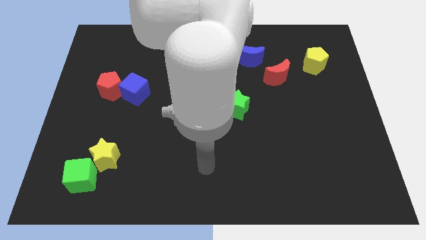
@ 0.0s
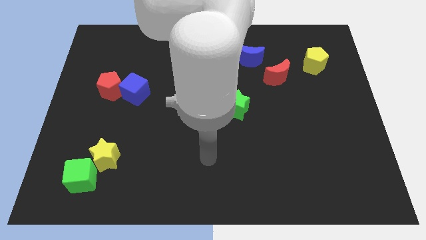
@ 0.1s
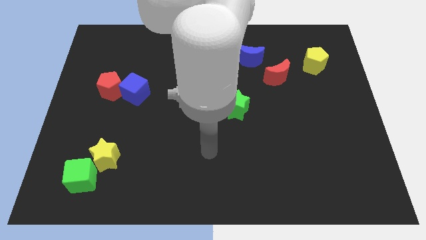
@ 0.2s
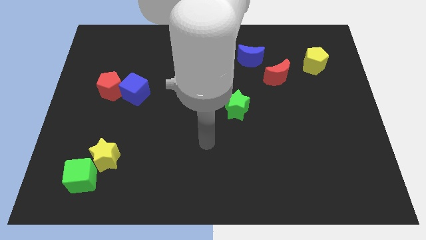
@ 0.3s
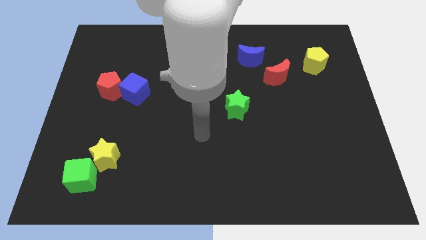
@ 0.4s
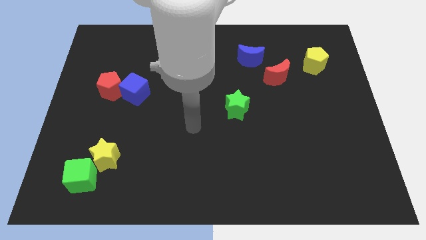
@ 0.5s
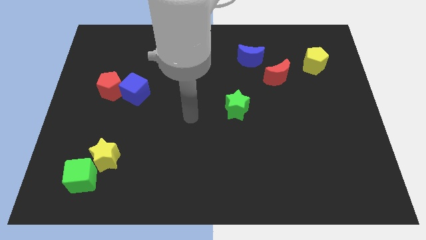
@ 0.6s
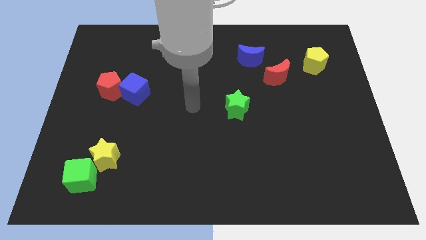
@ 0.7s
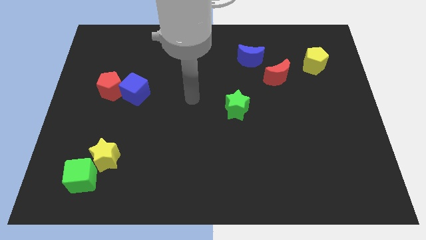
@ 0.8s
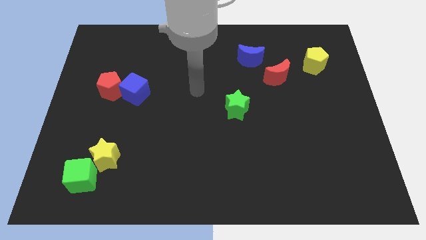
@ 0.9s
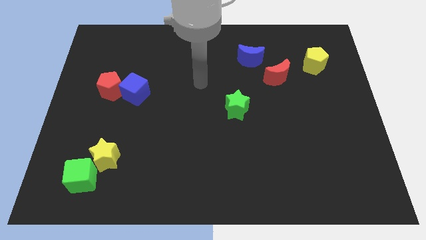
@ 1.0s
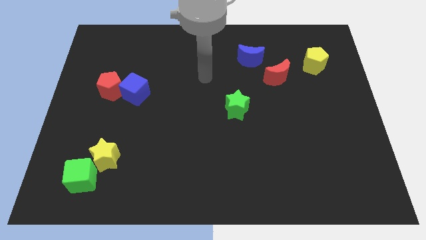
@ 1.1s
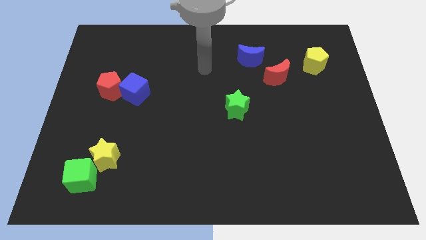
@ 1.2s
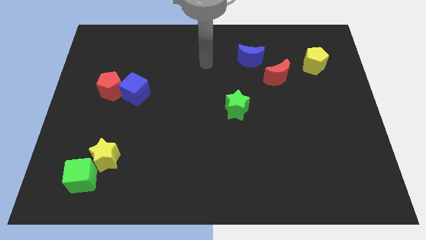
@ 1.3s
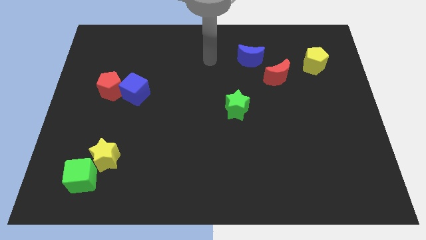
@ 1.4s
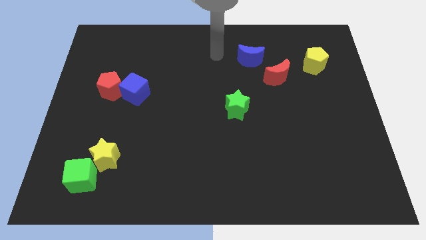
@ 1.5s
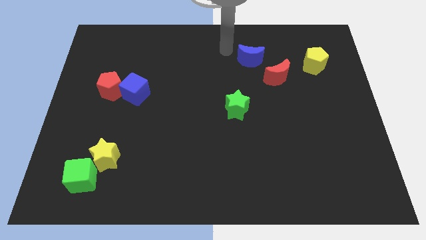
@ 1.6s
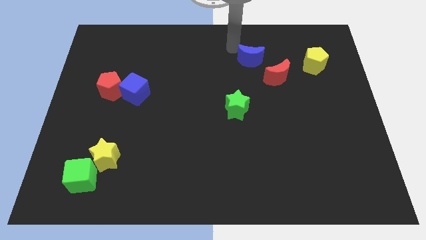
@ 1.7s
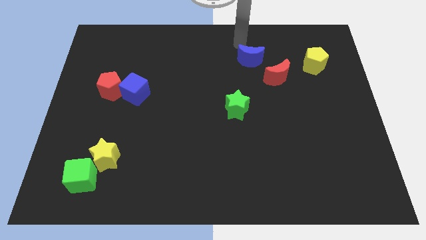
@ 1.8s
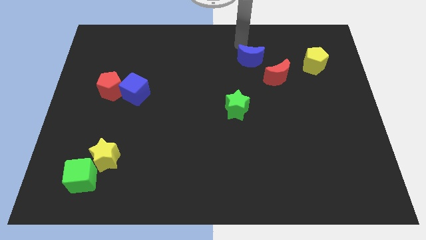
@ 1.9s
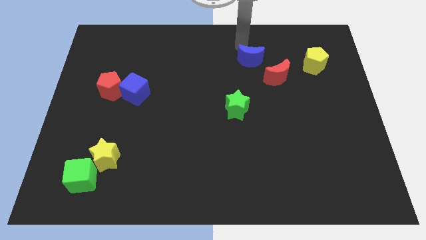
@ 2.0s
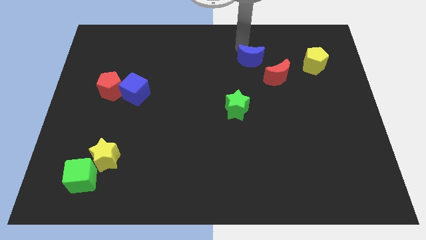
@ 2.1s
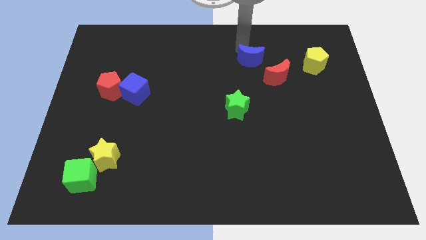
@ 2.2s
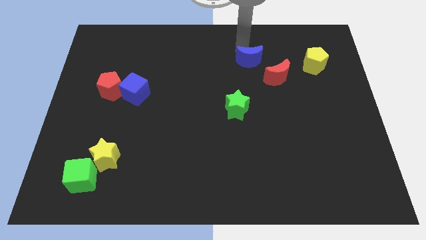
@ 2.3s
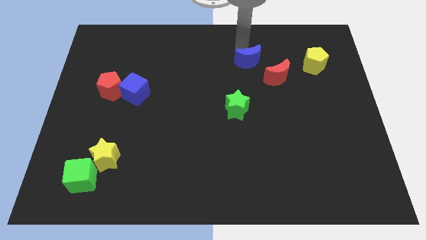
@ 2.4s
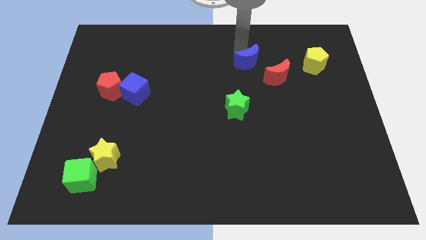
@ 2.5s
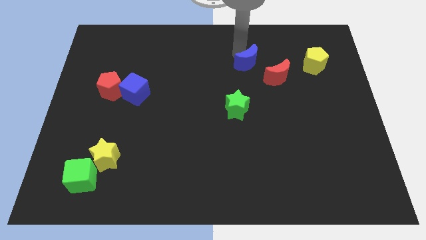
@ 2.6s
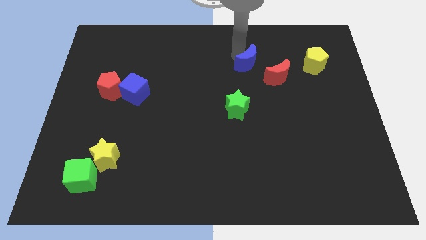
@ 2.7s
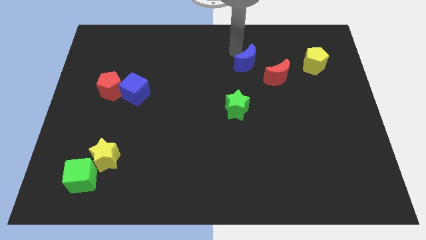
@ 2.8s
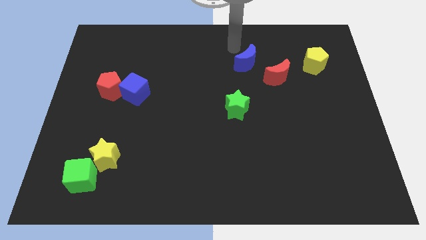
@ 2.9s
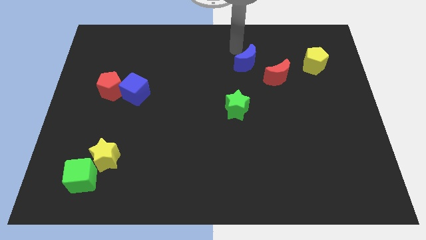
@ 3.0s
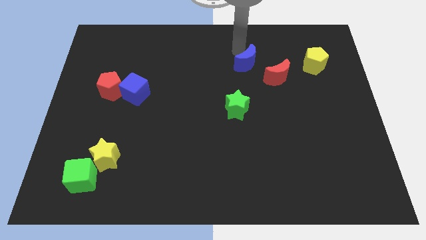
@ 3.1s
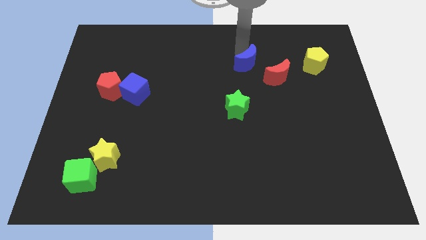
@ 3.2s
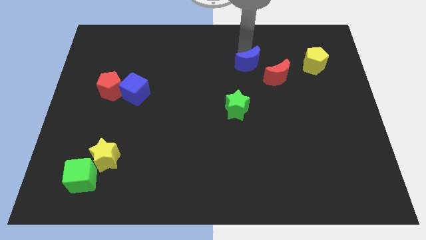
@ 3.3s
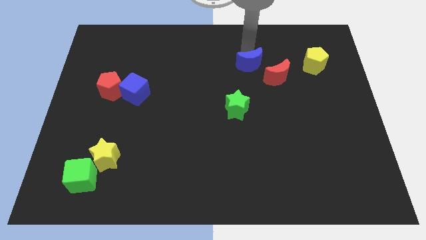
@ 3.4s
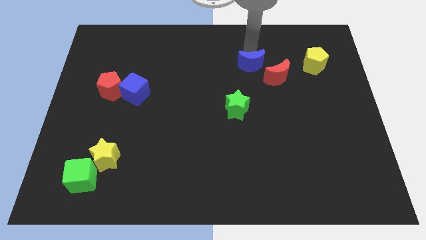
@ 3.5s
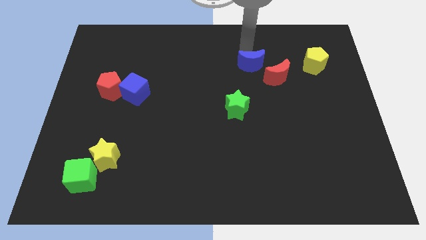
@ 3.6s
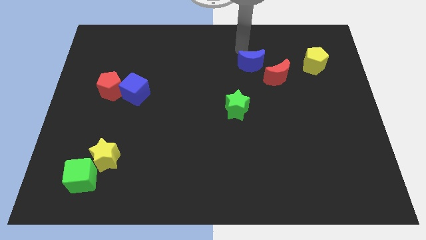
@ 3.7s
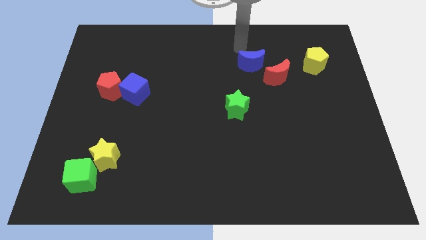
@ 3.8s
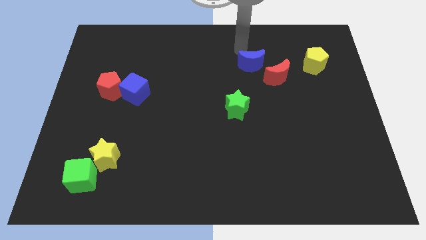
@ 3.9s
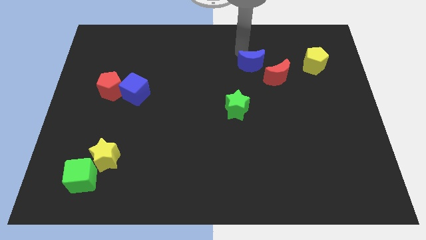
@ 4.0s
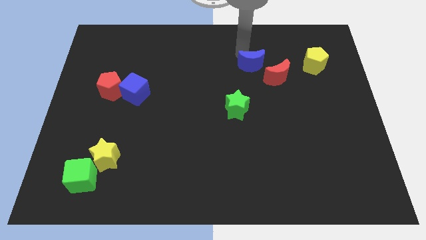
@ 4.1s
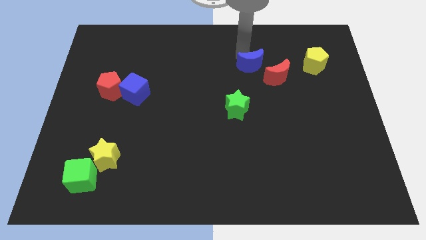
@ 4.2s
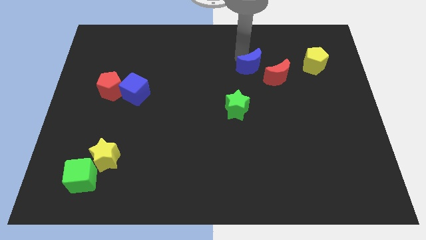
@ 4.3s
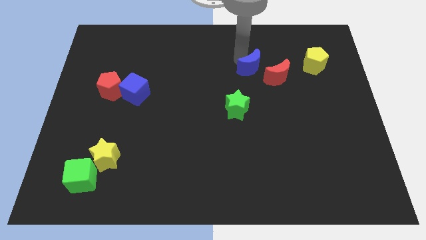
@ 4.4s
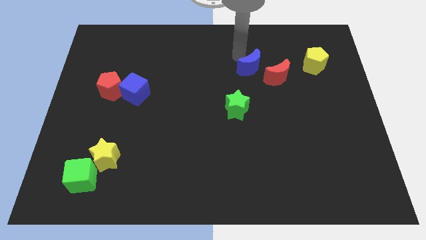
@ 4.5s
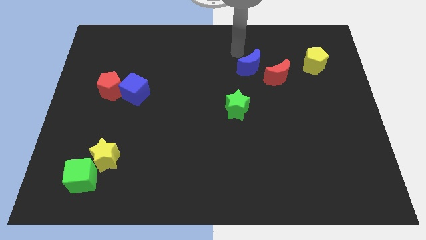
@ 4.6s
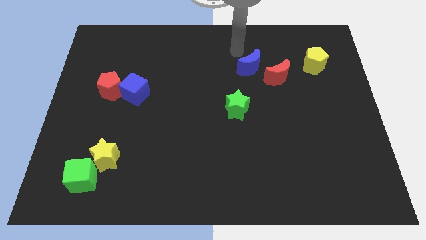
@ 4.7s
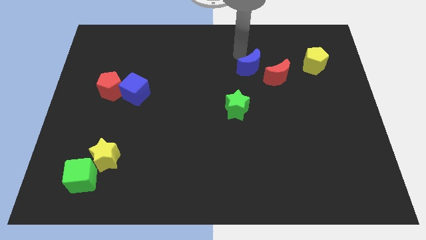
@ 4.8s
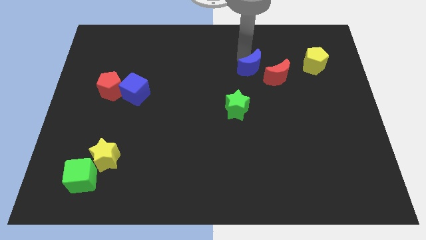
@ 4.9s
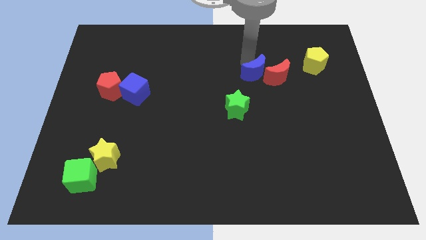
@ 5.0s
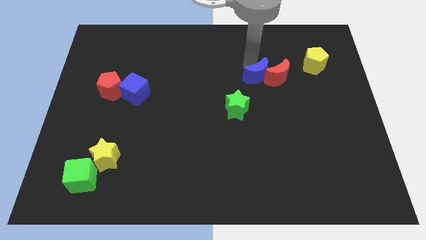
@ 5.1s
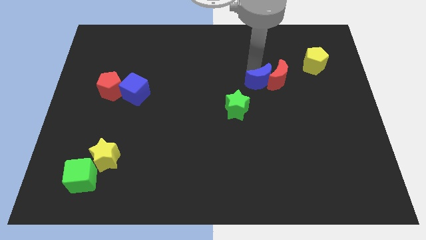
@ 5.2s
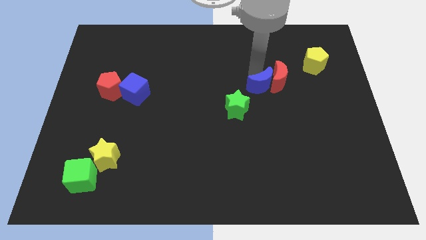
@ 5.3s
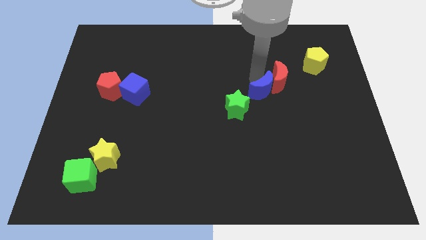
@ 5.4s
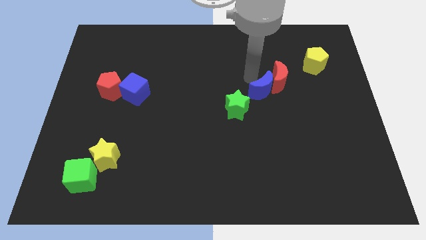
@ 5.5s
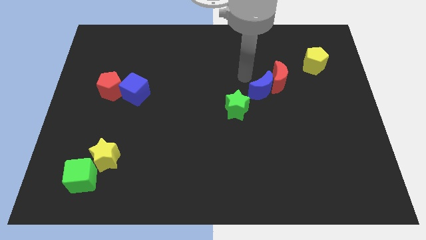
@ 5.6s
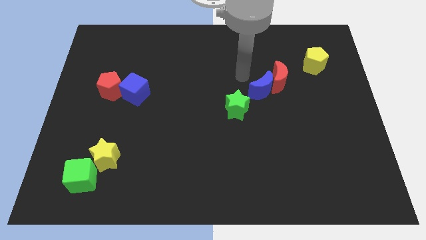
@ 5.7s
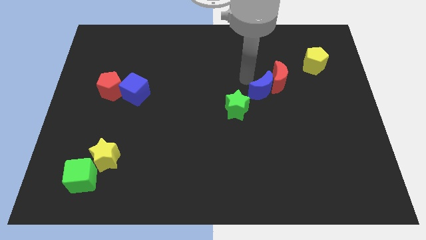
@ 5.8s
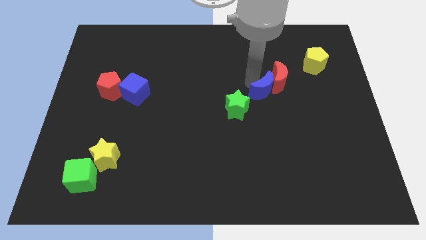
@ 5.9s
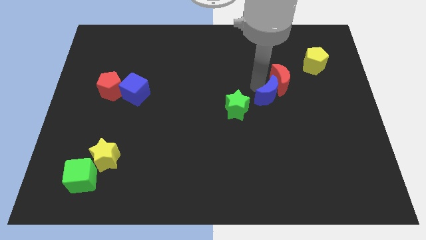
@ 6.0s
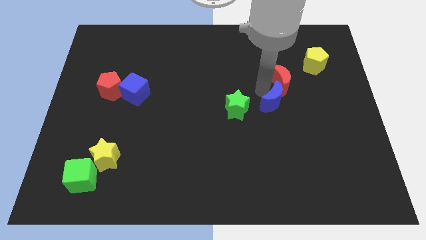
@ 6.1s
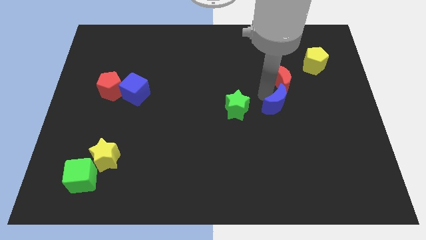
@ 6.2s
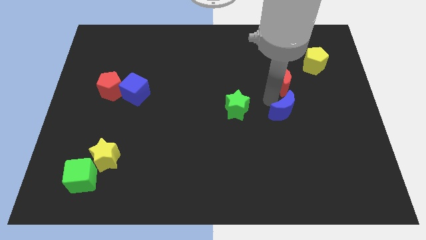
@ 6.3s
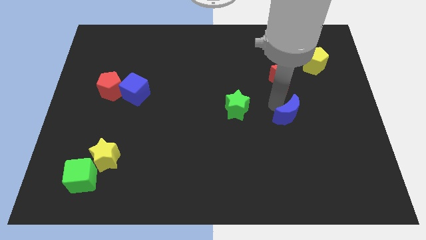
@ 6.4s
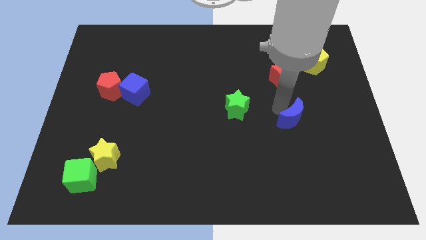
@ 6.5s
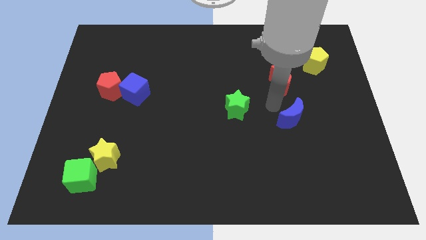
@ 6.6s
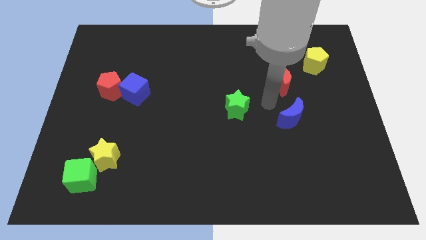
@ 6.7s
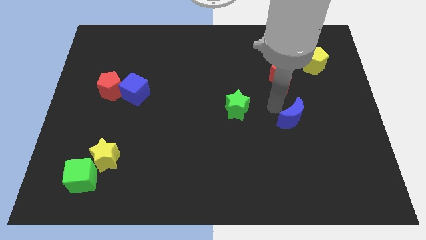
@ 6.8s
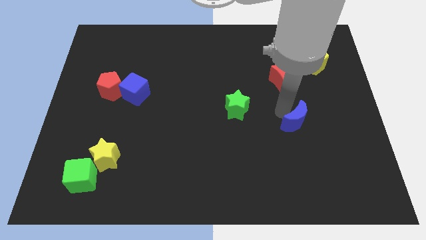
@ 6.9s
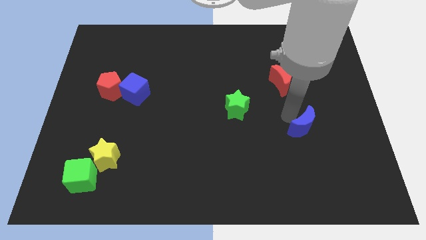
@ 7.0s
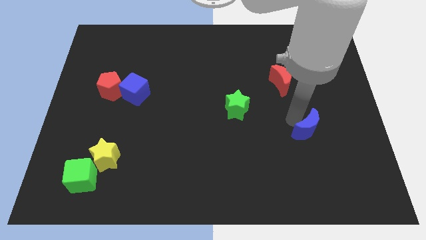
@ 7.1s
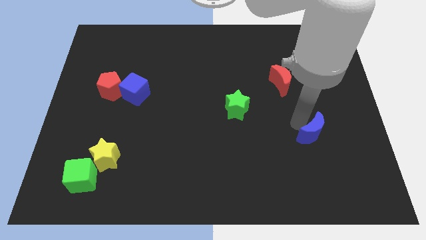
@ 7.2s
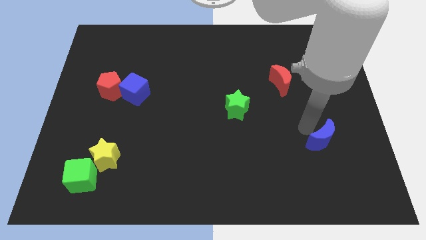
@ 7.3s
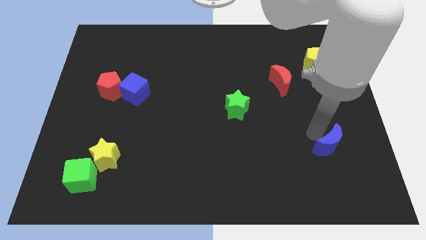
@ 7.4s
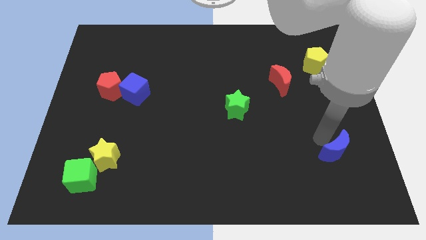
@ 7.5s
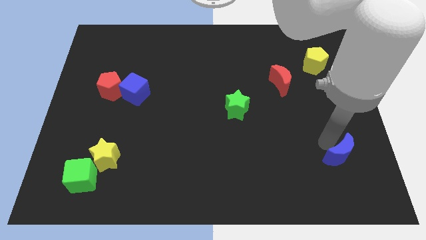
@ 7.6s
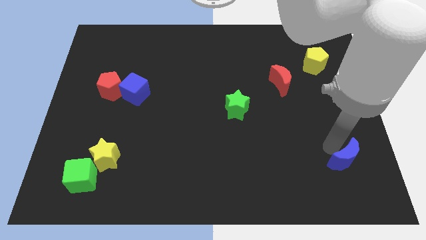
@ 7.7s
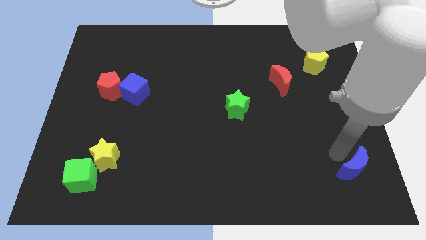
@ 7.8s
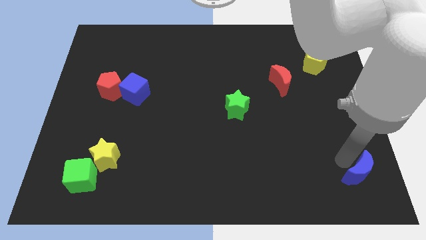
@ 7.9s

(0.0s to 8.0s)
slide the blue moon to the lower right corner
